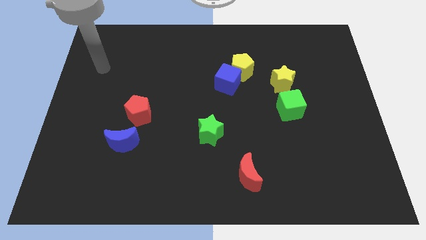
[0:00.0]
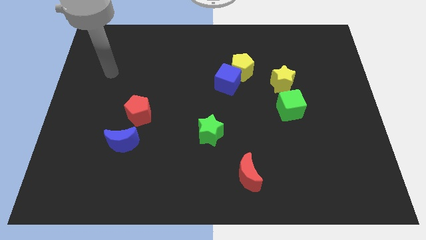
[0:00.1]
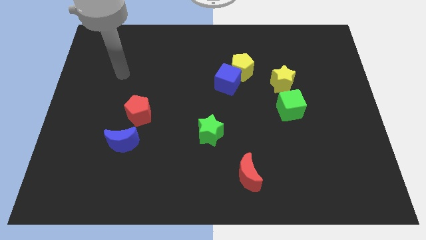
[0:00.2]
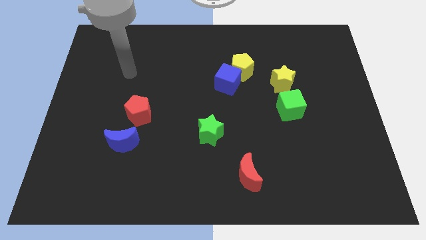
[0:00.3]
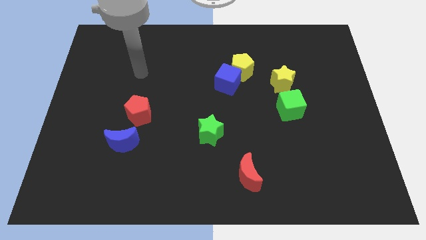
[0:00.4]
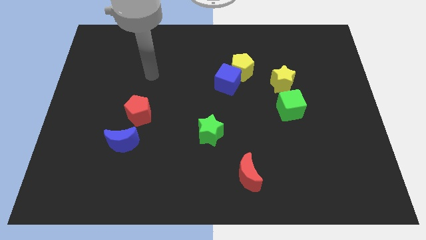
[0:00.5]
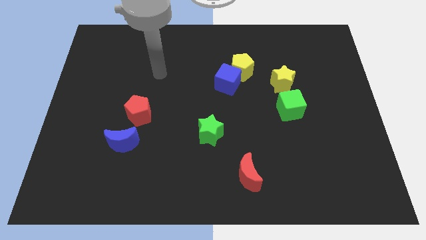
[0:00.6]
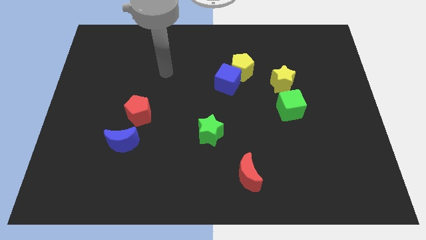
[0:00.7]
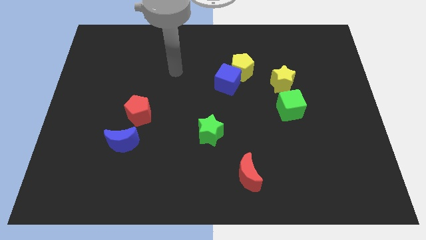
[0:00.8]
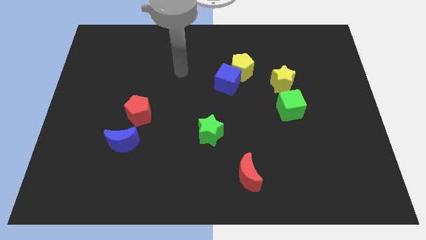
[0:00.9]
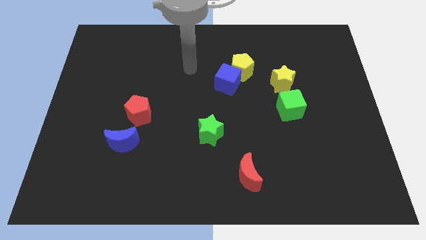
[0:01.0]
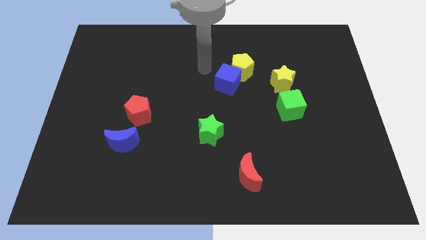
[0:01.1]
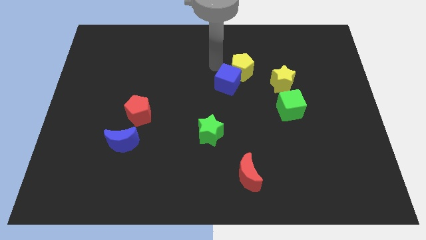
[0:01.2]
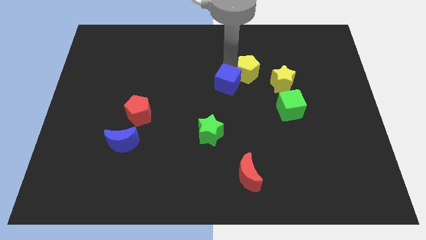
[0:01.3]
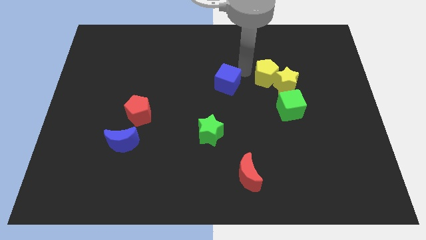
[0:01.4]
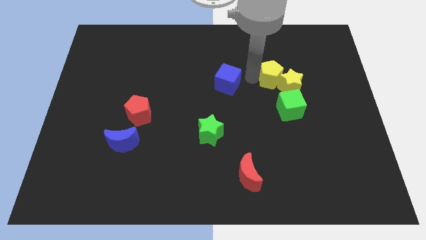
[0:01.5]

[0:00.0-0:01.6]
move the blue cube away from the yellow pentagon

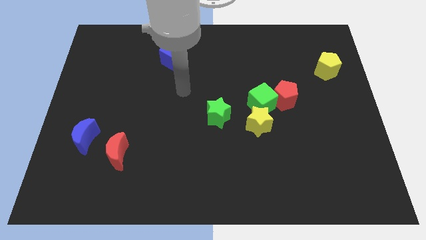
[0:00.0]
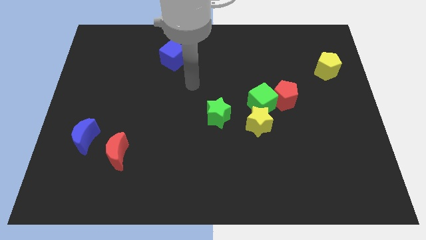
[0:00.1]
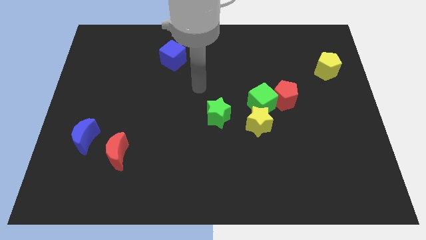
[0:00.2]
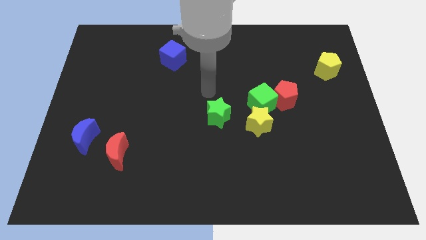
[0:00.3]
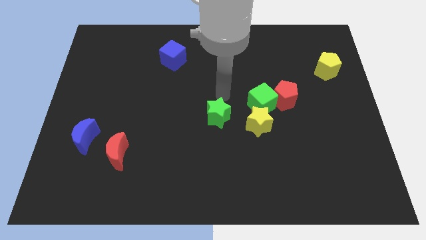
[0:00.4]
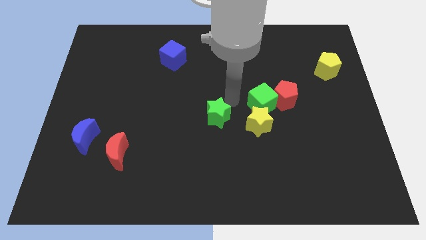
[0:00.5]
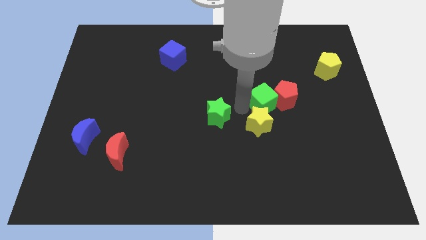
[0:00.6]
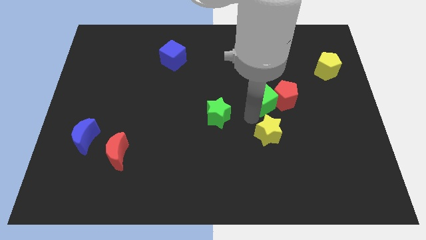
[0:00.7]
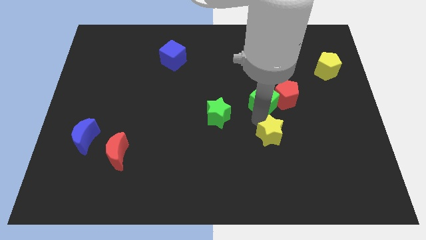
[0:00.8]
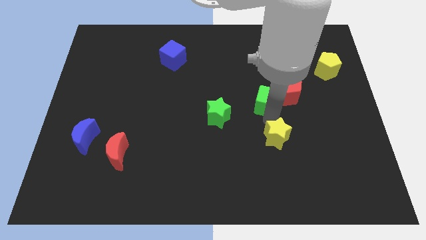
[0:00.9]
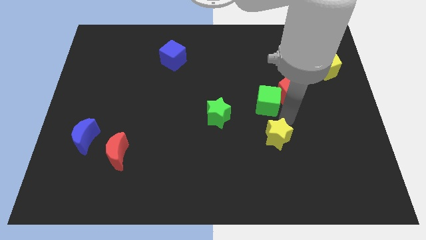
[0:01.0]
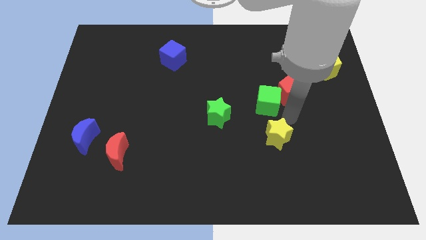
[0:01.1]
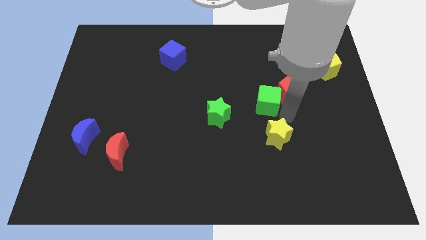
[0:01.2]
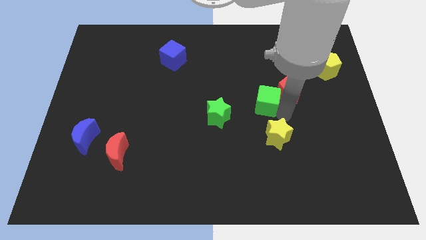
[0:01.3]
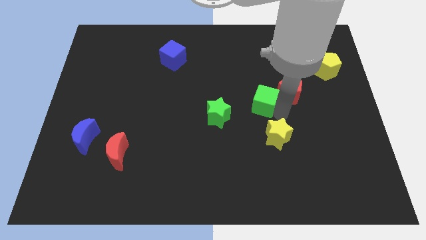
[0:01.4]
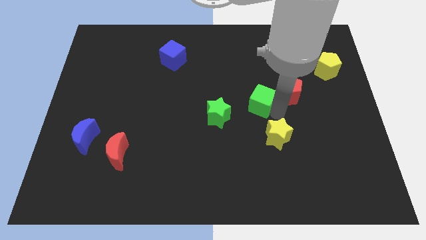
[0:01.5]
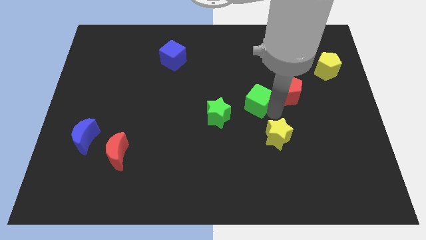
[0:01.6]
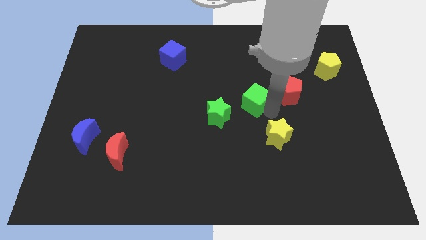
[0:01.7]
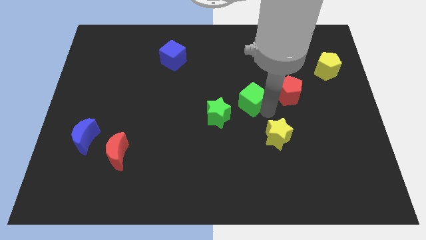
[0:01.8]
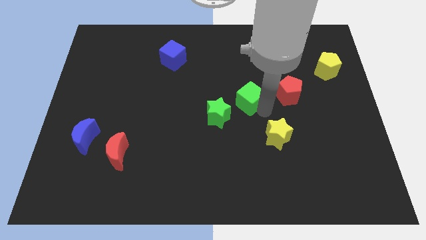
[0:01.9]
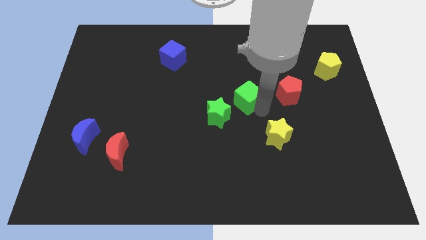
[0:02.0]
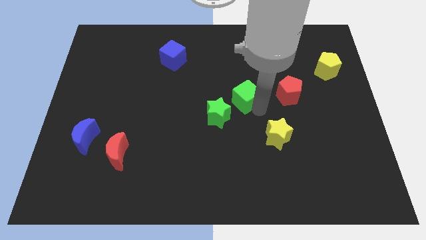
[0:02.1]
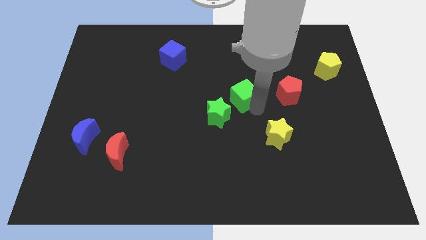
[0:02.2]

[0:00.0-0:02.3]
move the green cube away from the red pentagon and yellow star

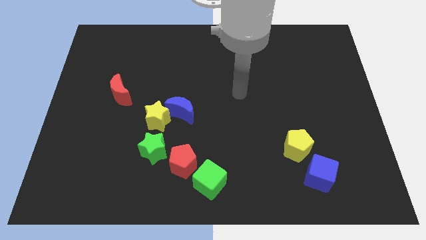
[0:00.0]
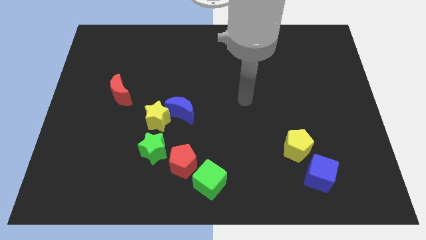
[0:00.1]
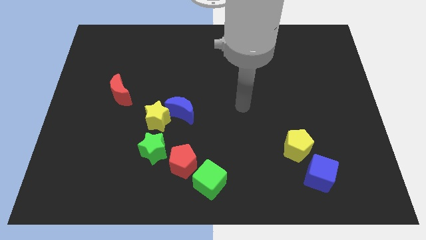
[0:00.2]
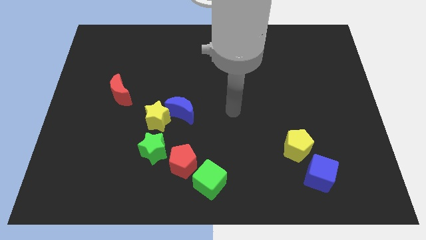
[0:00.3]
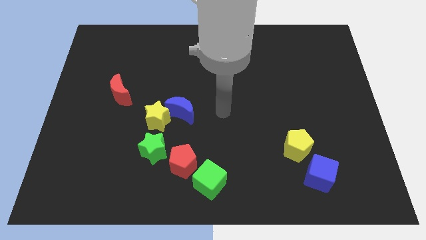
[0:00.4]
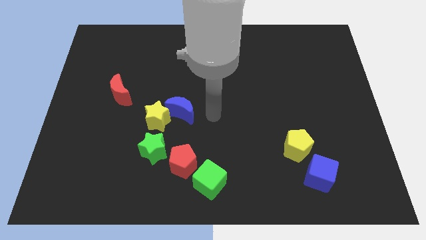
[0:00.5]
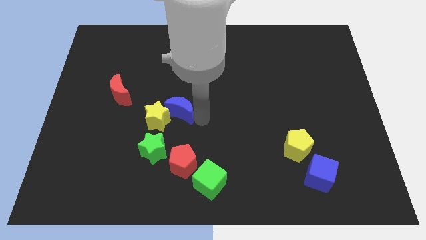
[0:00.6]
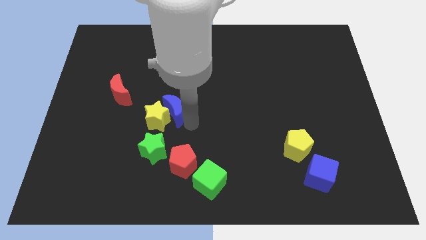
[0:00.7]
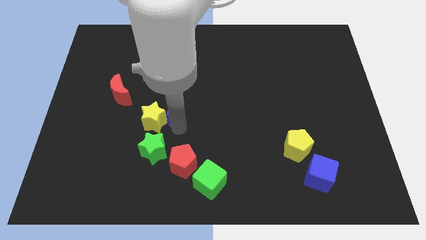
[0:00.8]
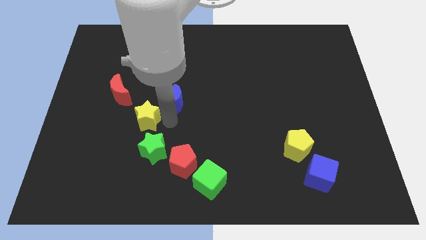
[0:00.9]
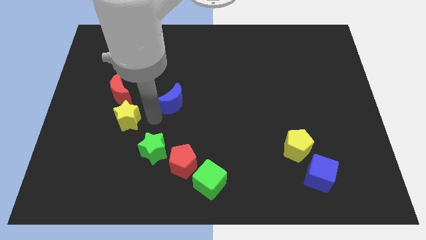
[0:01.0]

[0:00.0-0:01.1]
pull the blue moon apart from the yellow star

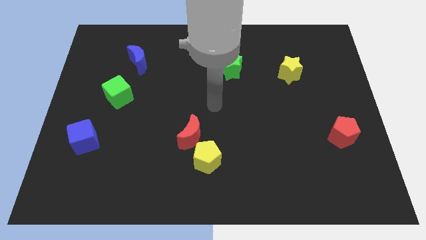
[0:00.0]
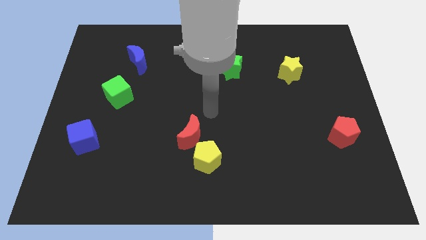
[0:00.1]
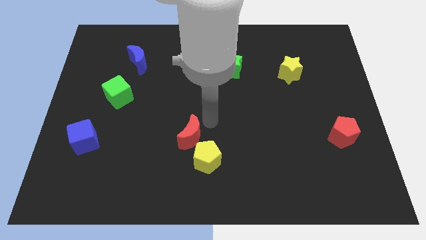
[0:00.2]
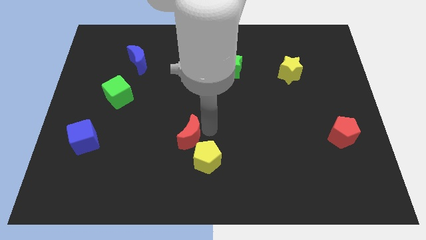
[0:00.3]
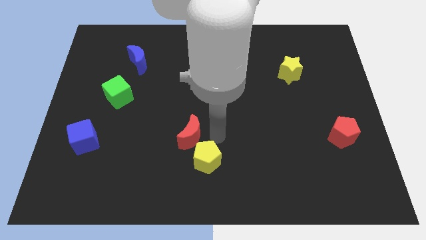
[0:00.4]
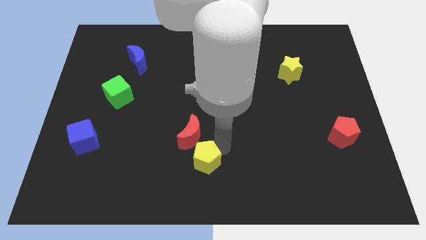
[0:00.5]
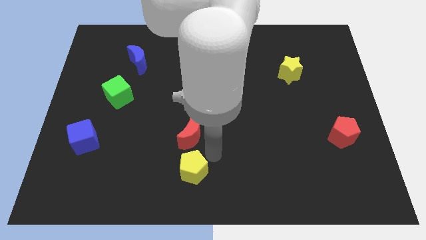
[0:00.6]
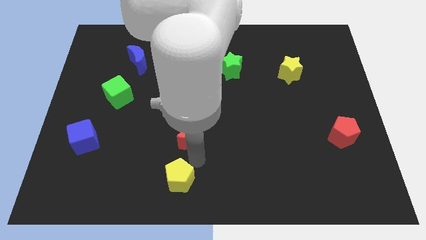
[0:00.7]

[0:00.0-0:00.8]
separate the red moon from the yellow pentagon

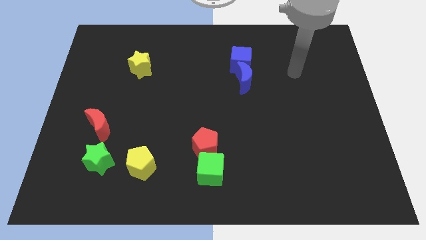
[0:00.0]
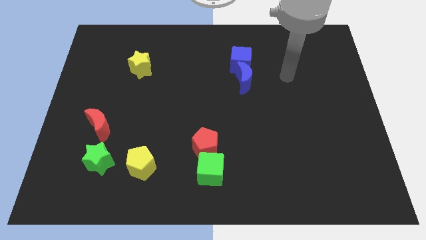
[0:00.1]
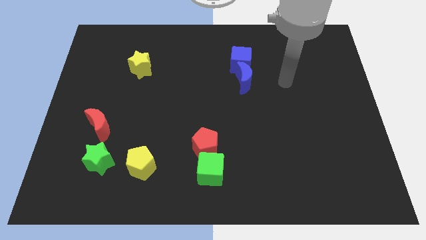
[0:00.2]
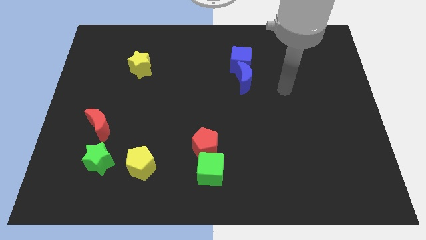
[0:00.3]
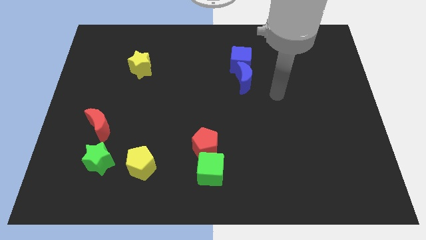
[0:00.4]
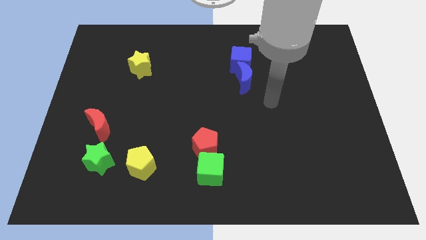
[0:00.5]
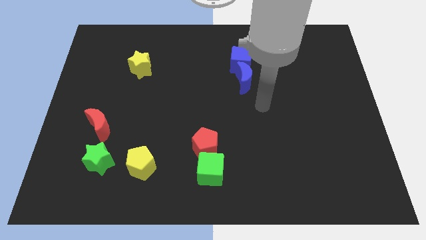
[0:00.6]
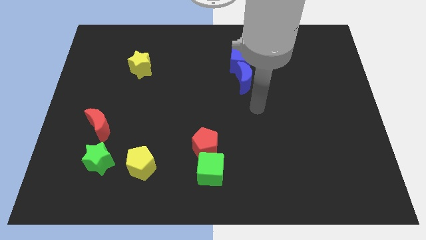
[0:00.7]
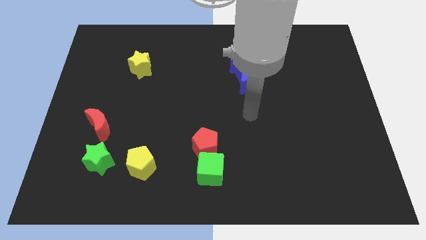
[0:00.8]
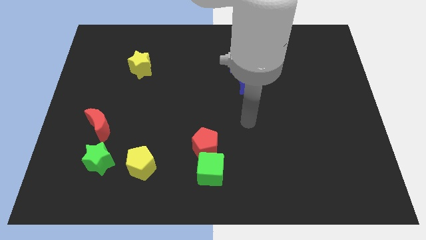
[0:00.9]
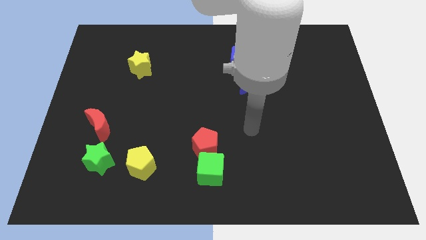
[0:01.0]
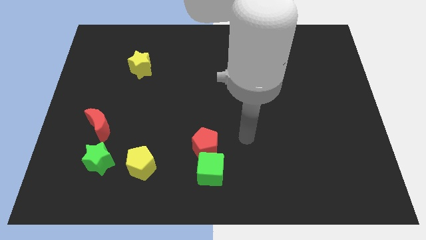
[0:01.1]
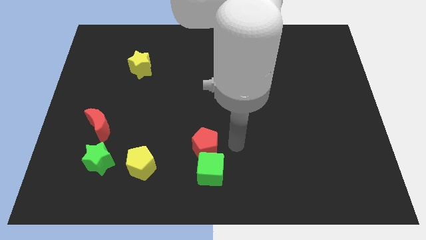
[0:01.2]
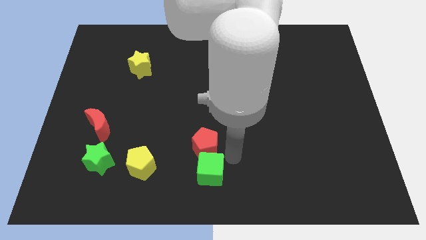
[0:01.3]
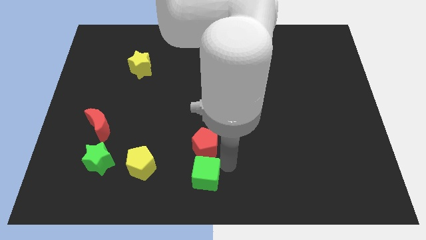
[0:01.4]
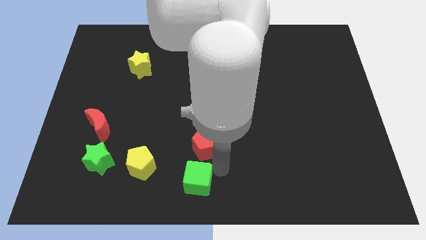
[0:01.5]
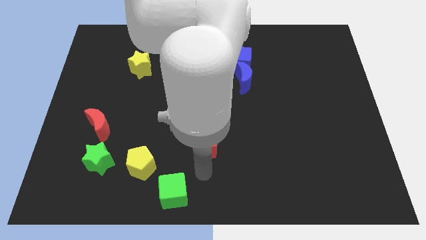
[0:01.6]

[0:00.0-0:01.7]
move the red pentagon away from the green cube

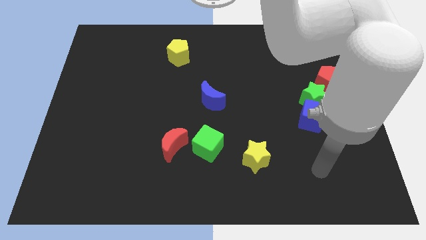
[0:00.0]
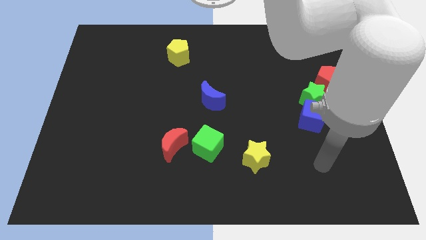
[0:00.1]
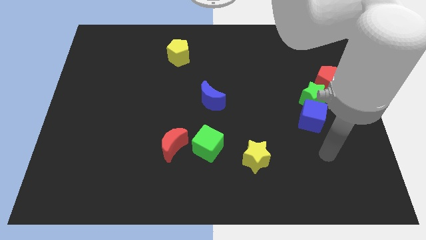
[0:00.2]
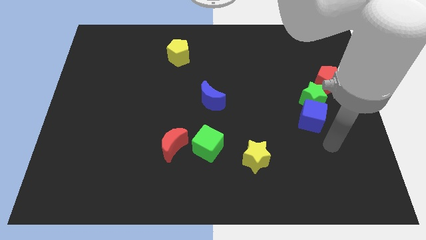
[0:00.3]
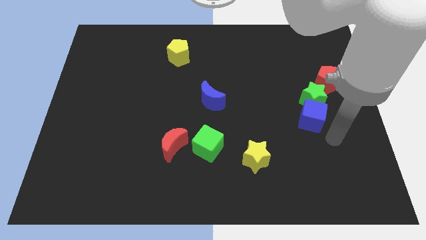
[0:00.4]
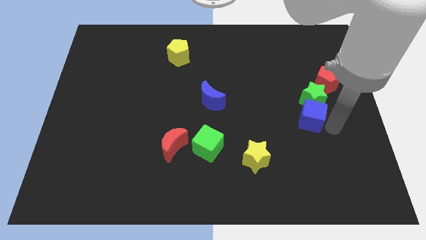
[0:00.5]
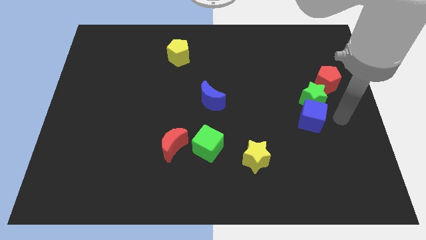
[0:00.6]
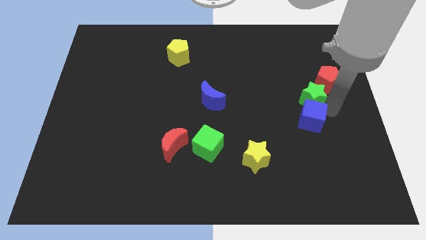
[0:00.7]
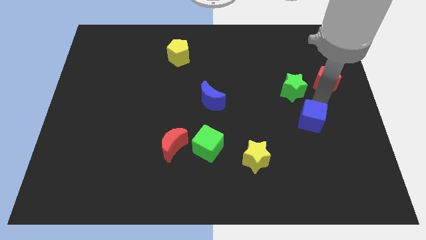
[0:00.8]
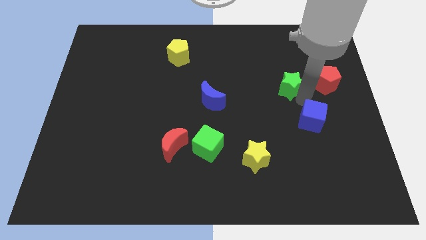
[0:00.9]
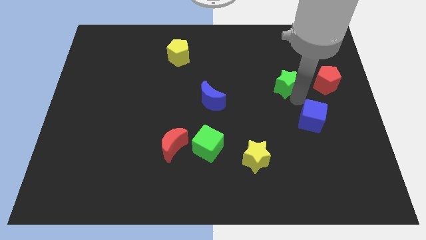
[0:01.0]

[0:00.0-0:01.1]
separate the blue cube from the green star

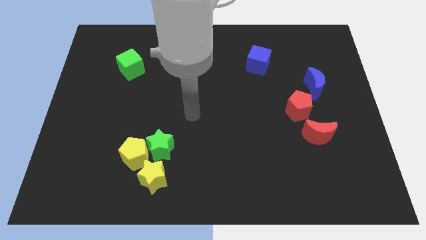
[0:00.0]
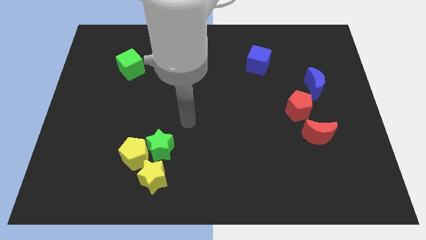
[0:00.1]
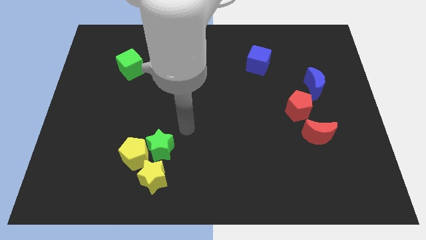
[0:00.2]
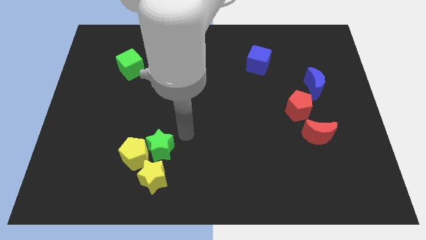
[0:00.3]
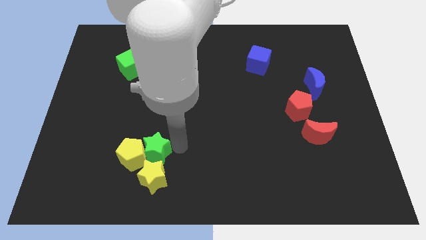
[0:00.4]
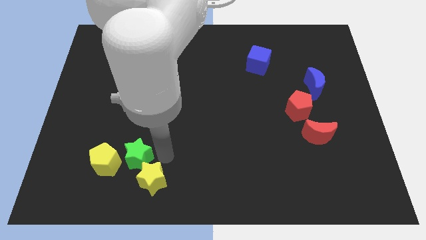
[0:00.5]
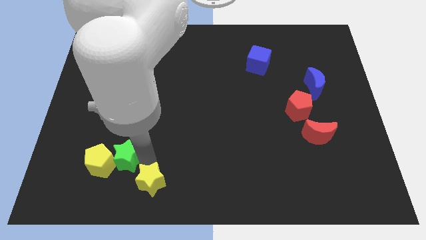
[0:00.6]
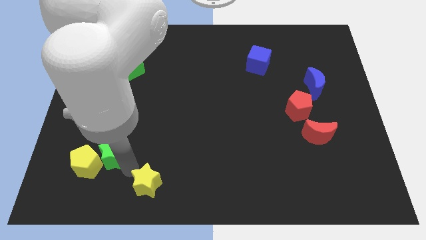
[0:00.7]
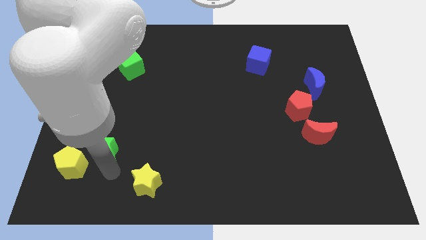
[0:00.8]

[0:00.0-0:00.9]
separate the yellow pentagon from the green star and yellow star
